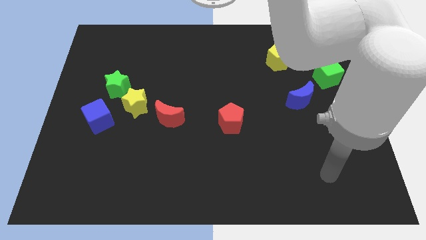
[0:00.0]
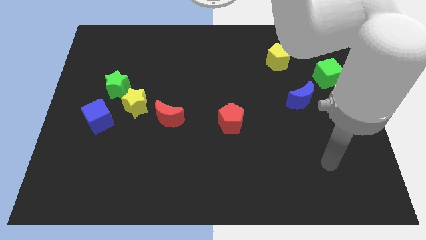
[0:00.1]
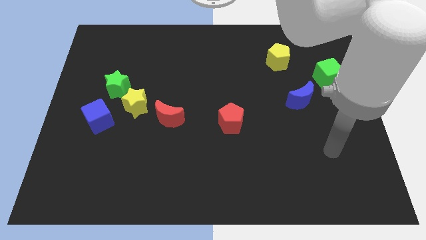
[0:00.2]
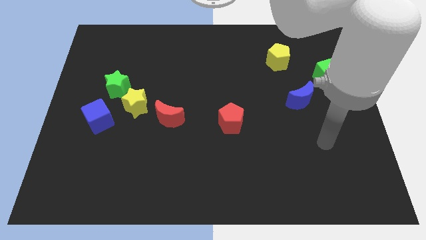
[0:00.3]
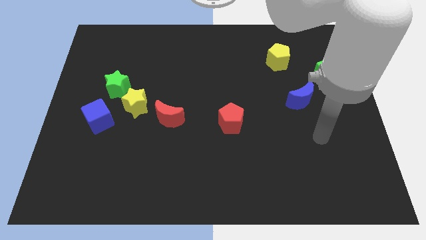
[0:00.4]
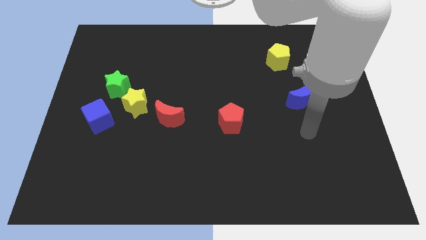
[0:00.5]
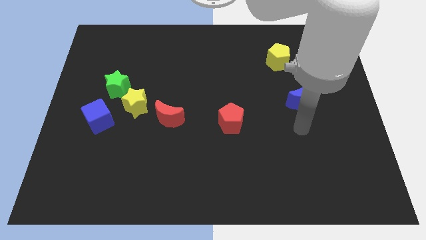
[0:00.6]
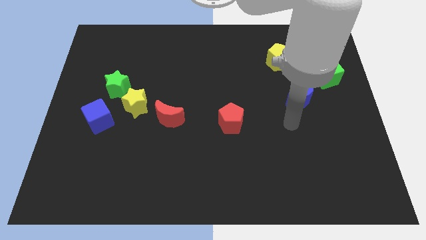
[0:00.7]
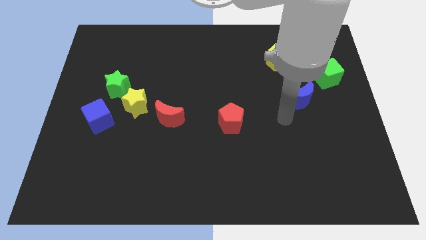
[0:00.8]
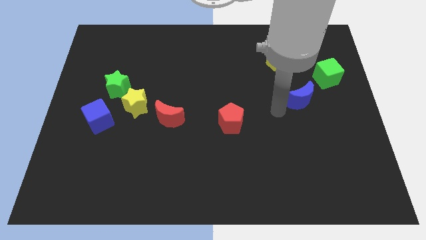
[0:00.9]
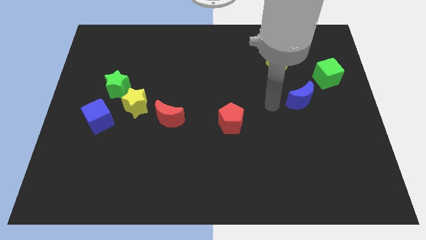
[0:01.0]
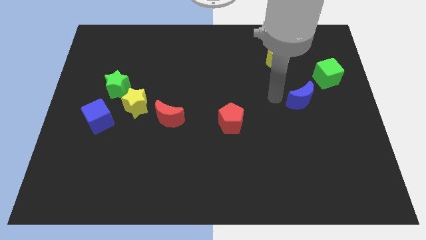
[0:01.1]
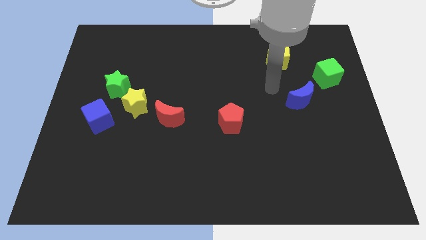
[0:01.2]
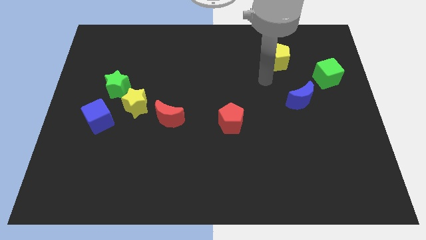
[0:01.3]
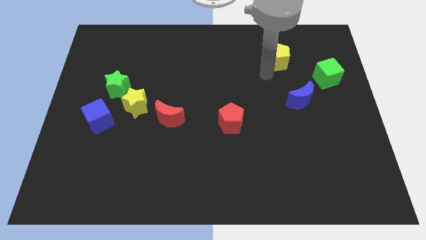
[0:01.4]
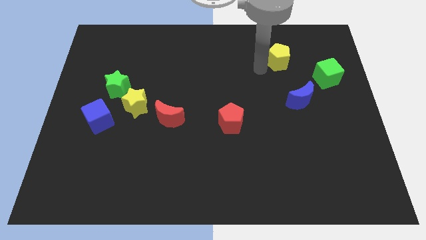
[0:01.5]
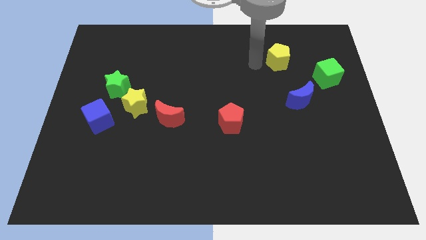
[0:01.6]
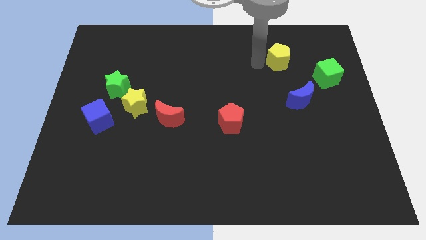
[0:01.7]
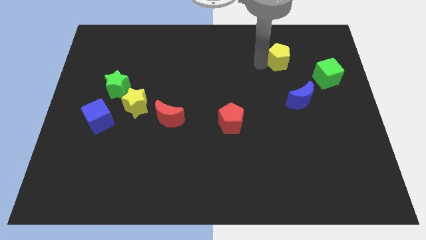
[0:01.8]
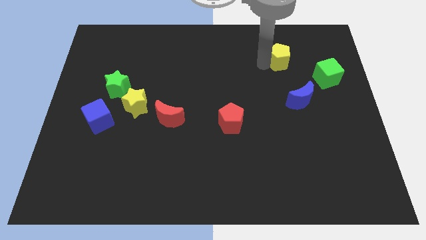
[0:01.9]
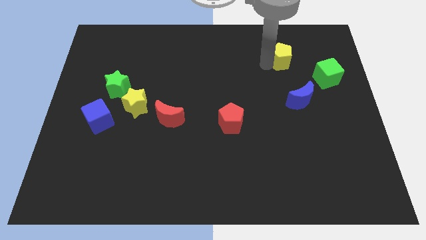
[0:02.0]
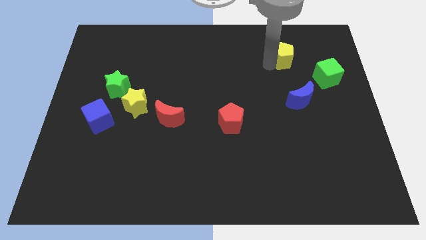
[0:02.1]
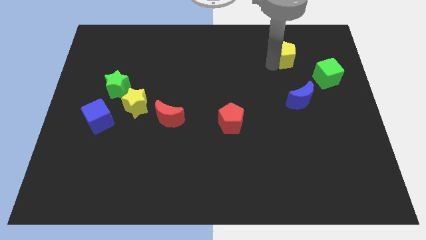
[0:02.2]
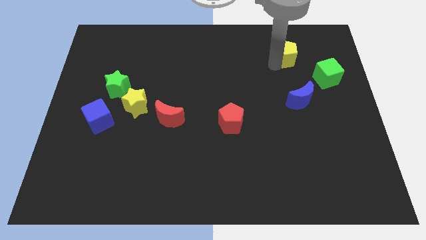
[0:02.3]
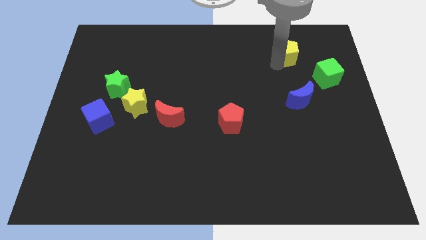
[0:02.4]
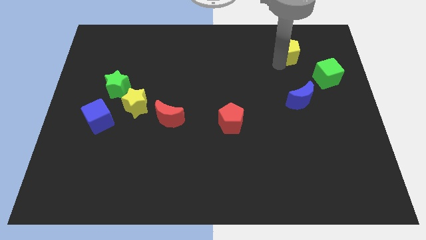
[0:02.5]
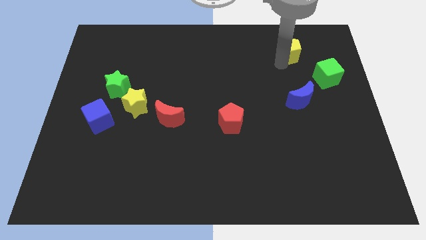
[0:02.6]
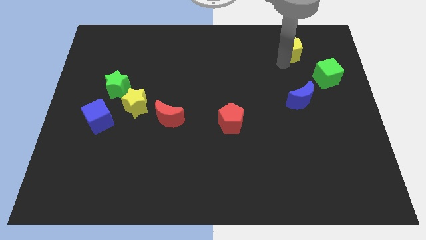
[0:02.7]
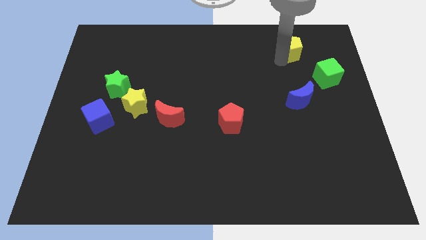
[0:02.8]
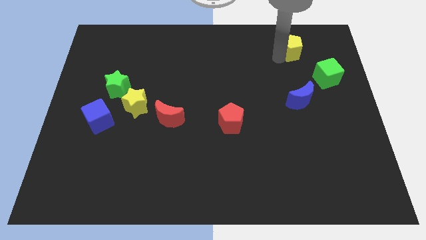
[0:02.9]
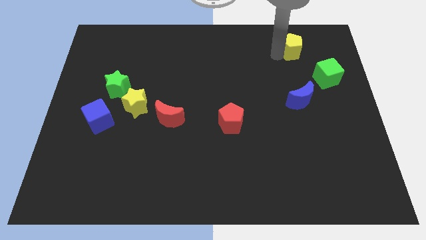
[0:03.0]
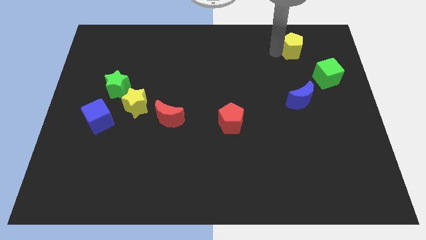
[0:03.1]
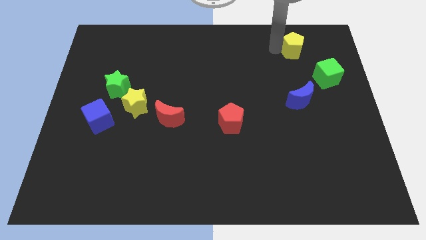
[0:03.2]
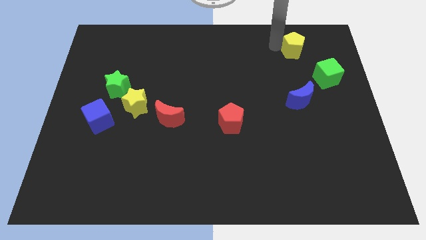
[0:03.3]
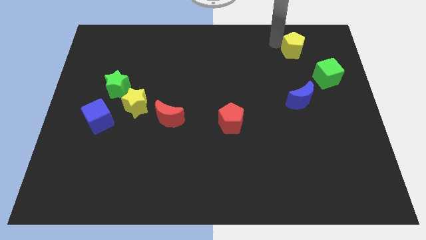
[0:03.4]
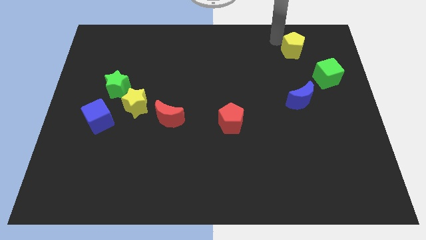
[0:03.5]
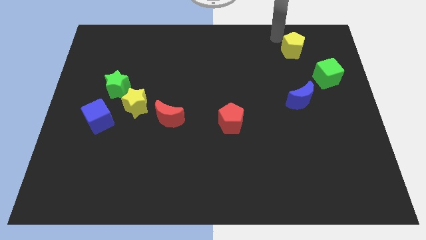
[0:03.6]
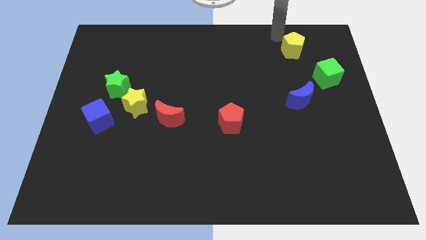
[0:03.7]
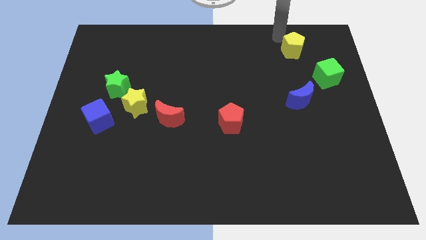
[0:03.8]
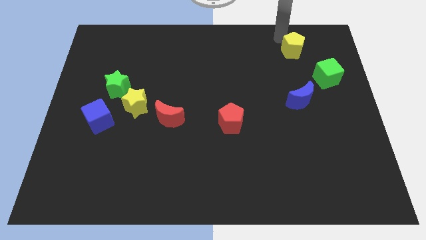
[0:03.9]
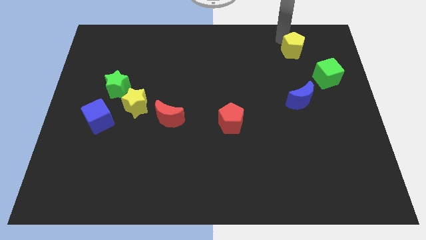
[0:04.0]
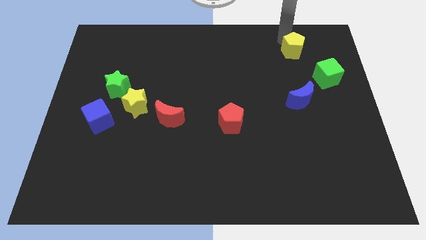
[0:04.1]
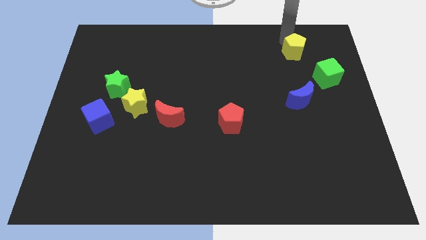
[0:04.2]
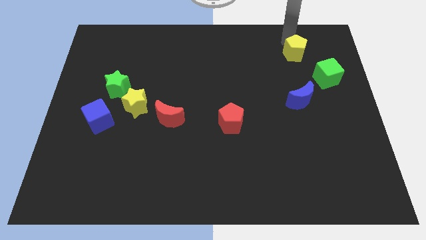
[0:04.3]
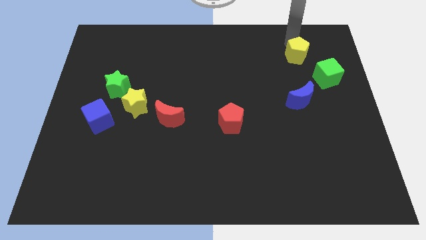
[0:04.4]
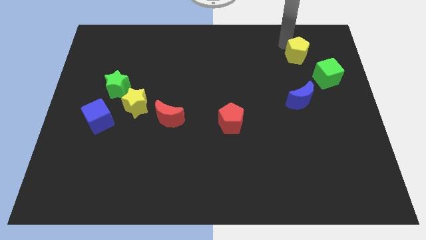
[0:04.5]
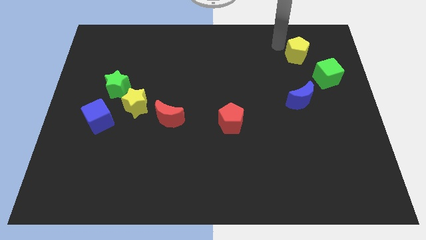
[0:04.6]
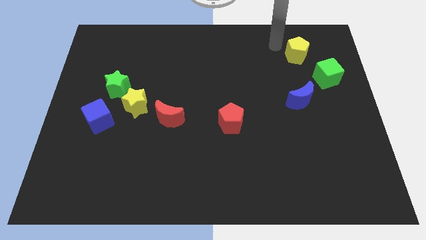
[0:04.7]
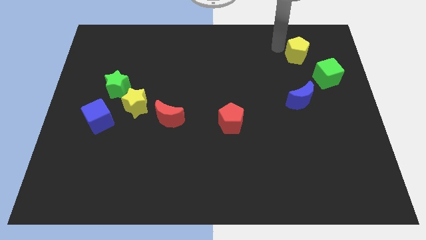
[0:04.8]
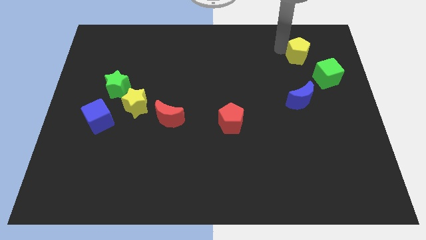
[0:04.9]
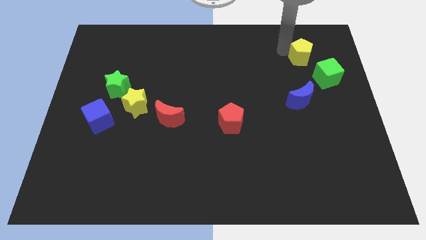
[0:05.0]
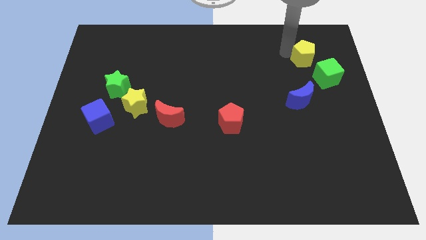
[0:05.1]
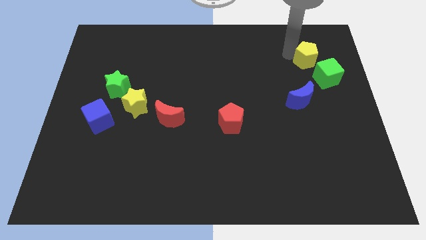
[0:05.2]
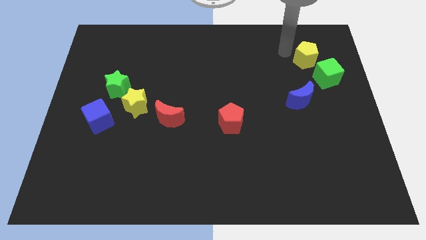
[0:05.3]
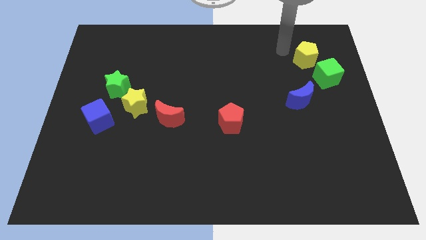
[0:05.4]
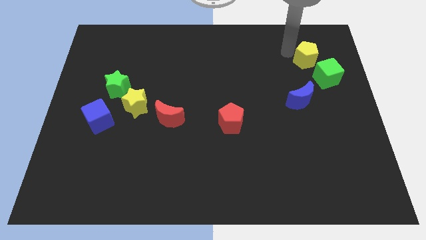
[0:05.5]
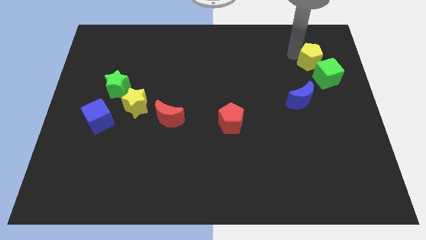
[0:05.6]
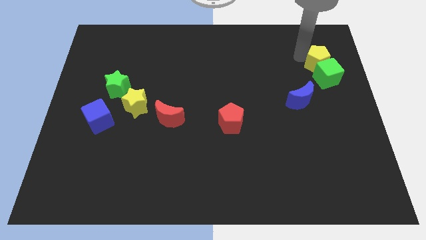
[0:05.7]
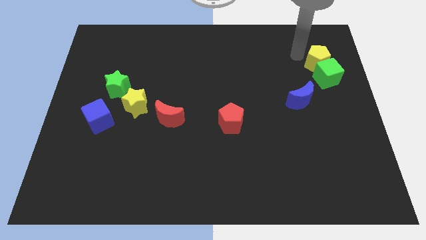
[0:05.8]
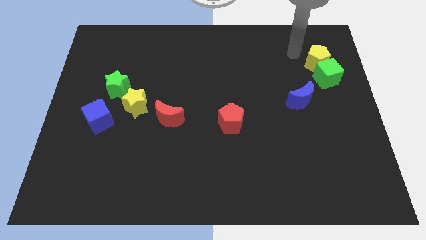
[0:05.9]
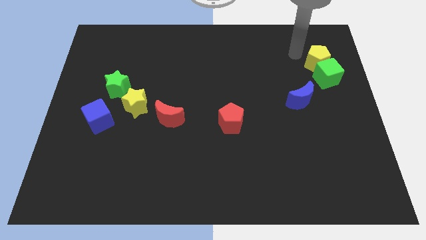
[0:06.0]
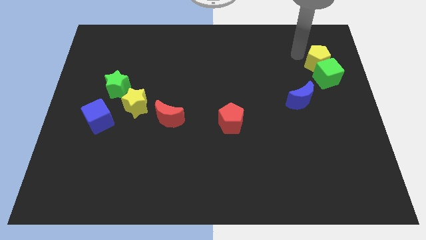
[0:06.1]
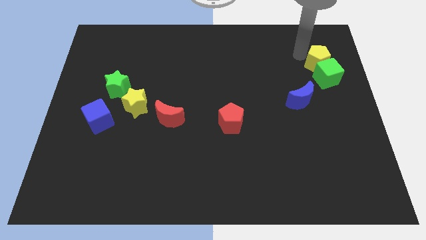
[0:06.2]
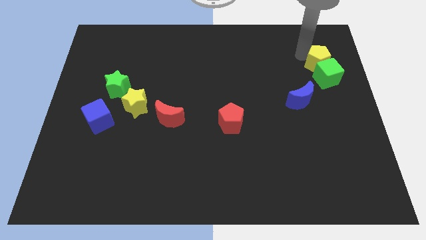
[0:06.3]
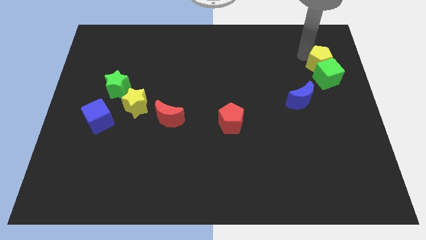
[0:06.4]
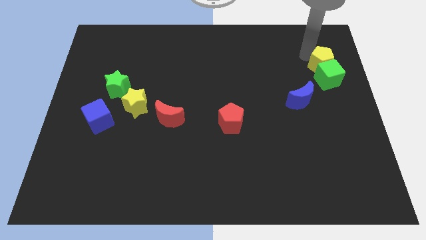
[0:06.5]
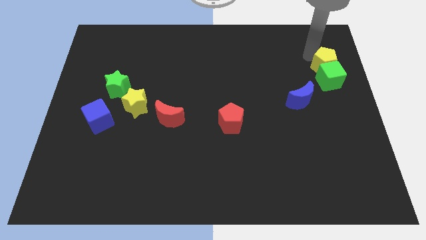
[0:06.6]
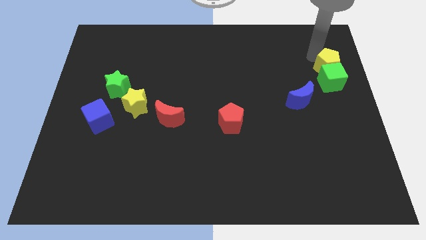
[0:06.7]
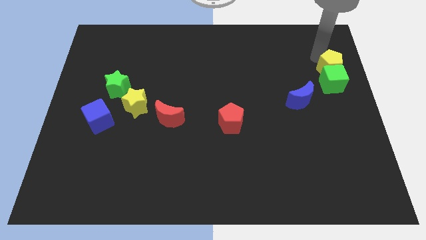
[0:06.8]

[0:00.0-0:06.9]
push the yellow pentagon to the right side of the board

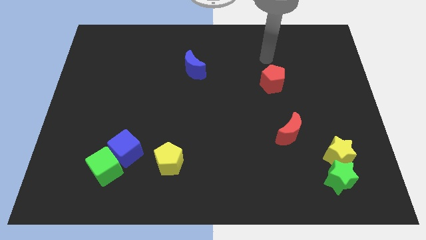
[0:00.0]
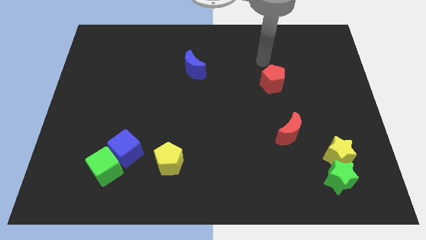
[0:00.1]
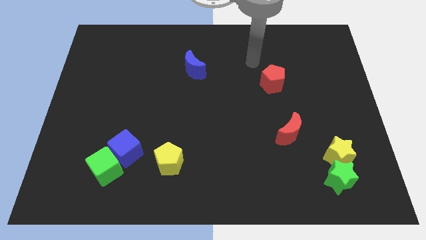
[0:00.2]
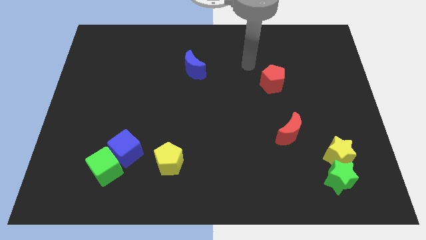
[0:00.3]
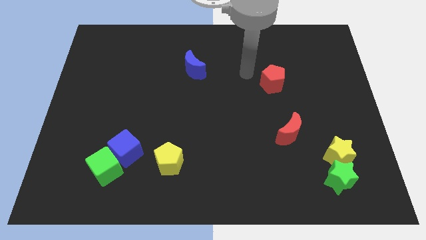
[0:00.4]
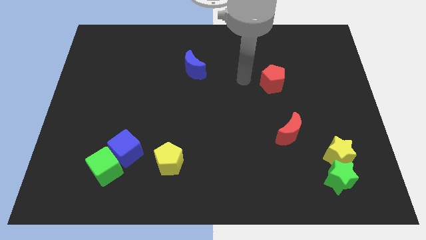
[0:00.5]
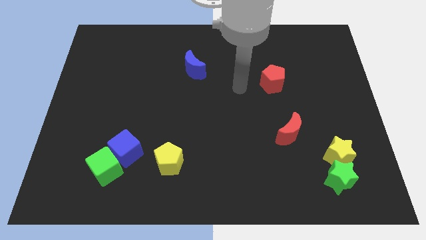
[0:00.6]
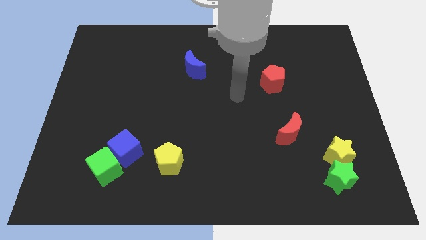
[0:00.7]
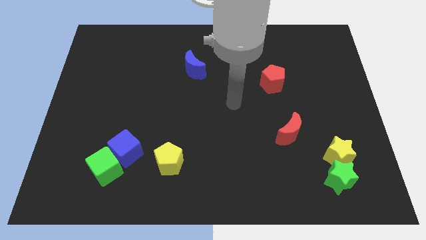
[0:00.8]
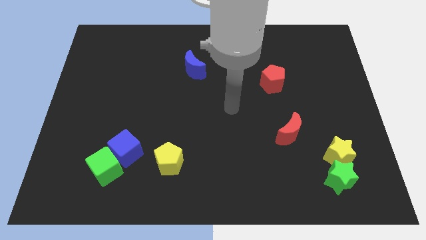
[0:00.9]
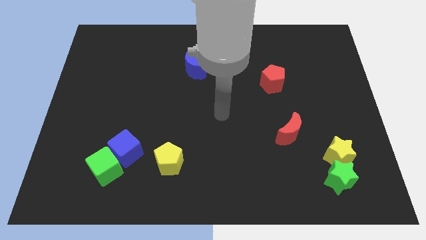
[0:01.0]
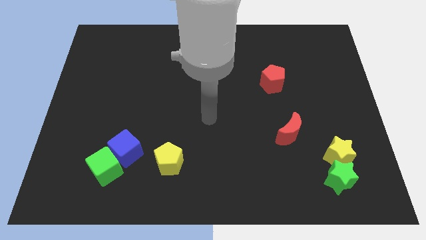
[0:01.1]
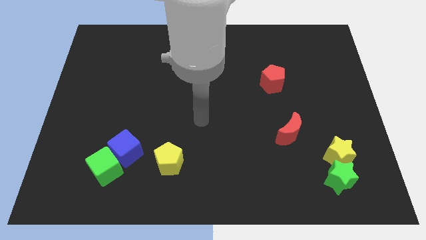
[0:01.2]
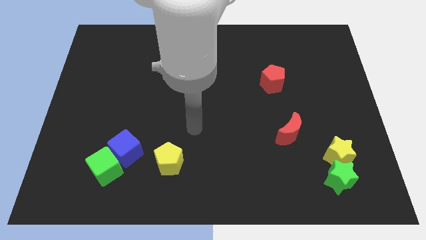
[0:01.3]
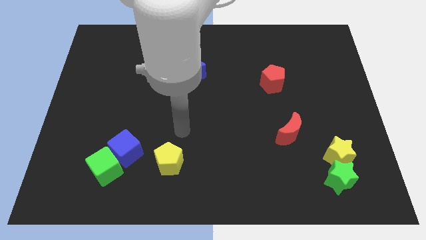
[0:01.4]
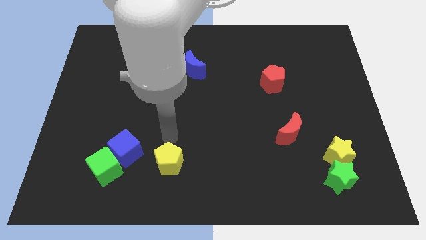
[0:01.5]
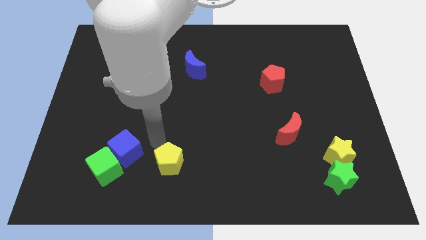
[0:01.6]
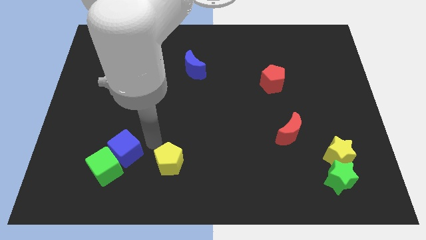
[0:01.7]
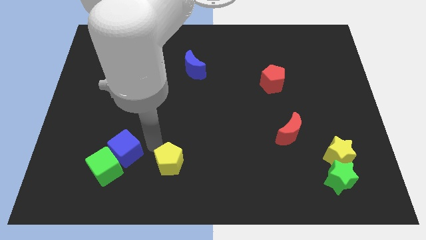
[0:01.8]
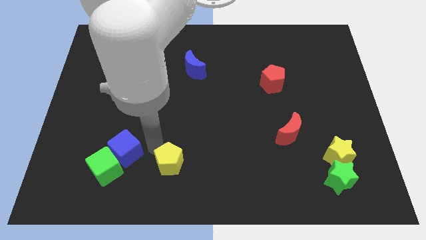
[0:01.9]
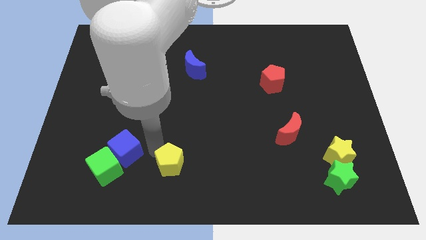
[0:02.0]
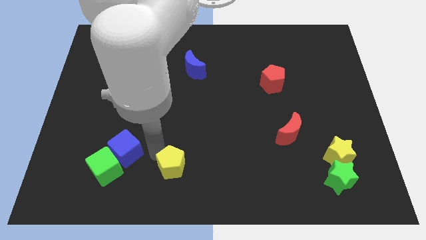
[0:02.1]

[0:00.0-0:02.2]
slide the yellow pentagon to the bottom side
